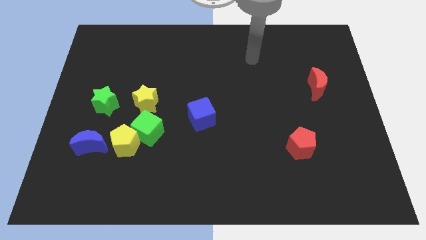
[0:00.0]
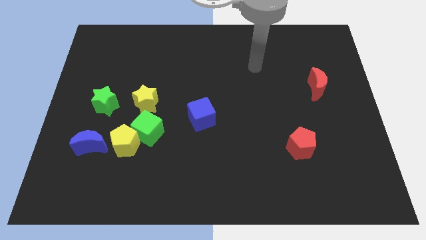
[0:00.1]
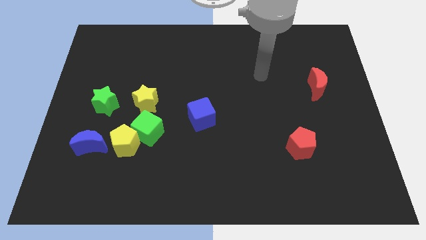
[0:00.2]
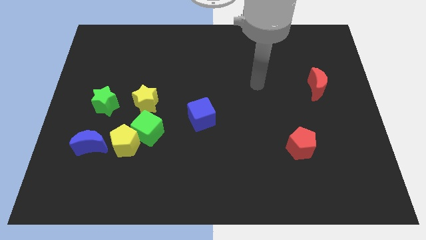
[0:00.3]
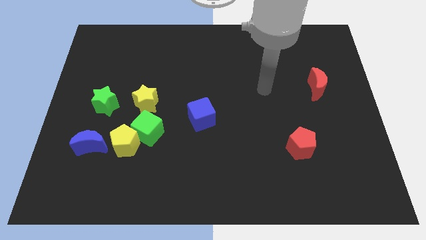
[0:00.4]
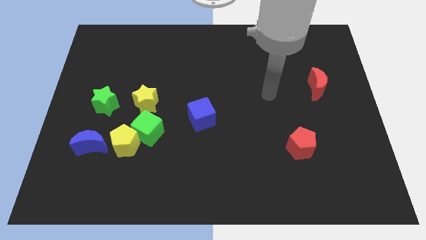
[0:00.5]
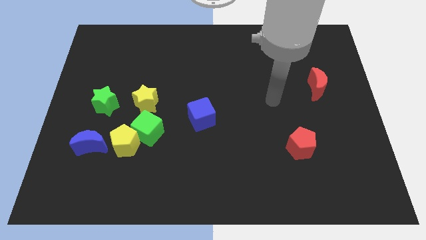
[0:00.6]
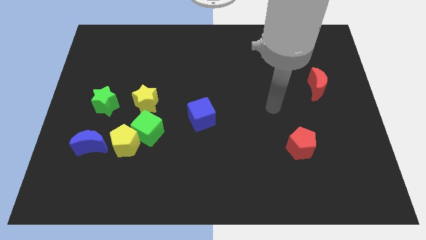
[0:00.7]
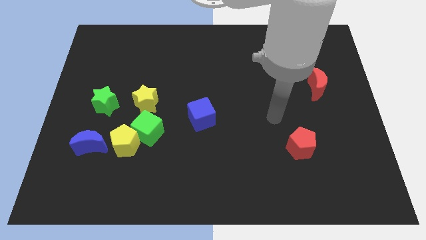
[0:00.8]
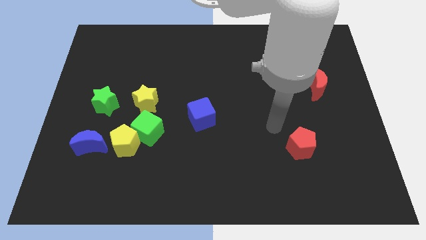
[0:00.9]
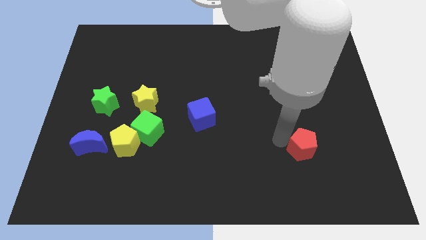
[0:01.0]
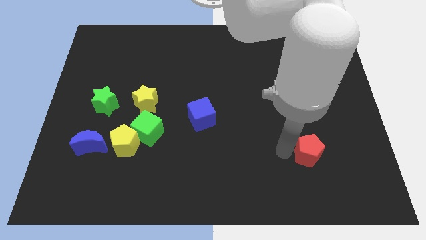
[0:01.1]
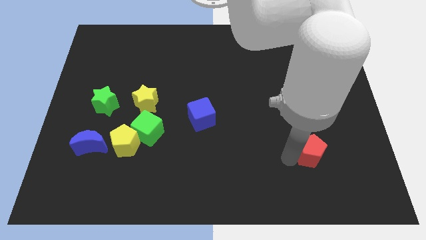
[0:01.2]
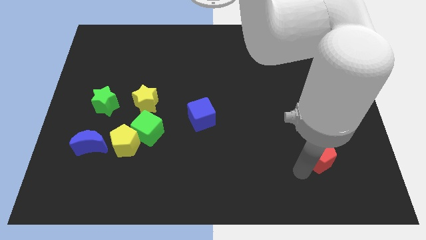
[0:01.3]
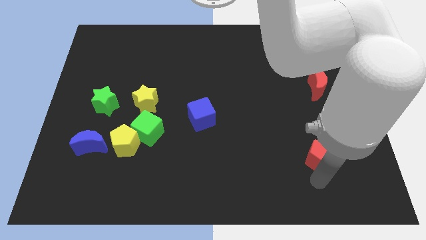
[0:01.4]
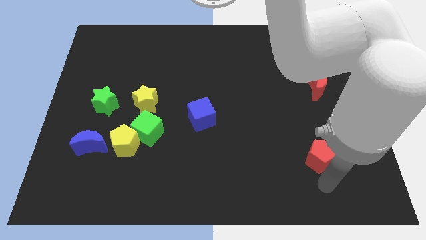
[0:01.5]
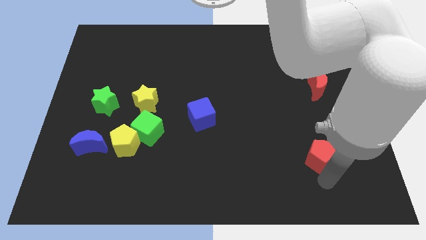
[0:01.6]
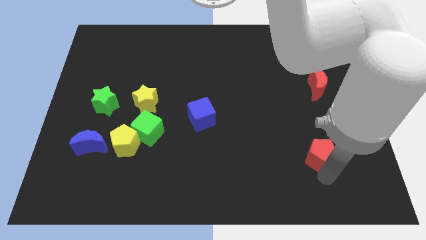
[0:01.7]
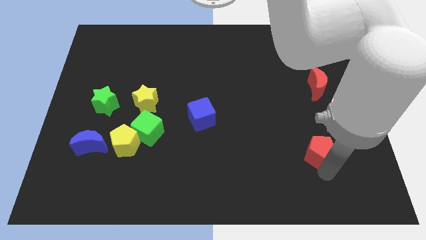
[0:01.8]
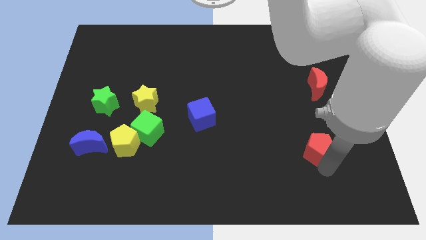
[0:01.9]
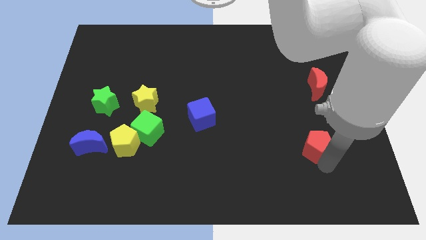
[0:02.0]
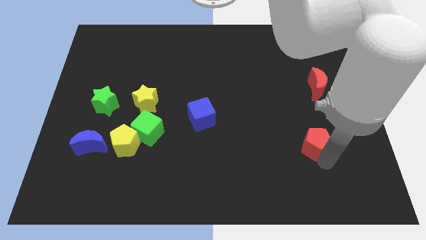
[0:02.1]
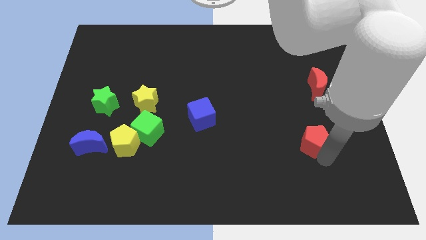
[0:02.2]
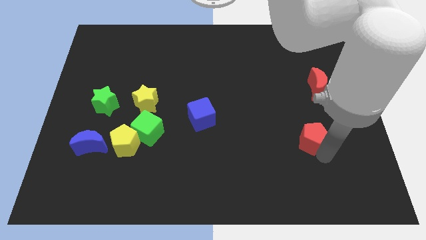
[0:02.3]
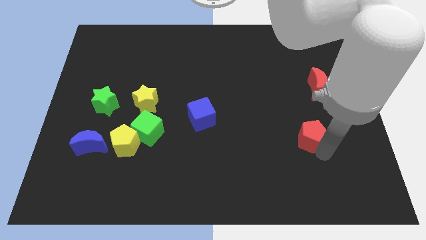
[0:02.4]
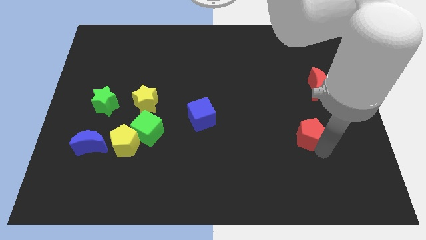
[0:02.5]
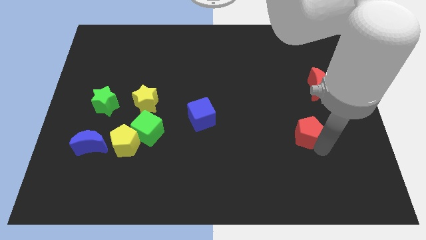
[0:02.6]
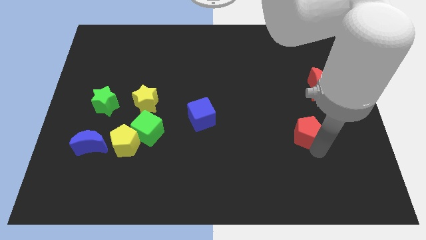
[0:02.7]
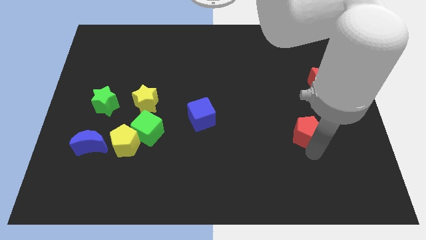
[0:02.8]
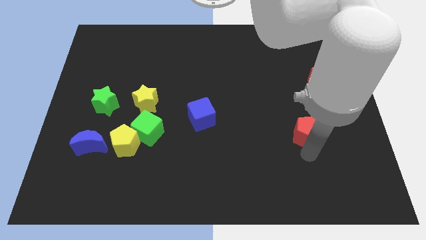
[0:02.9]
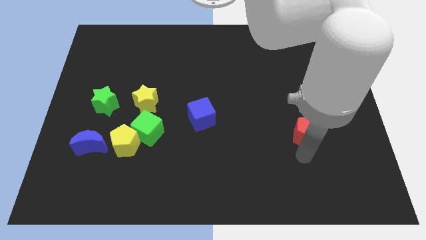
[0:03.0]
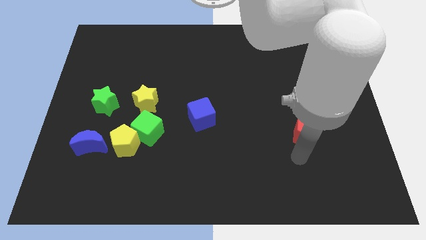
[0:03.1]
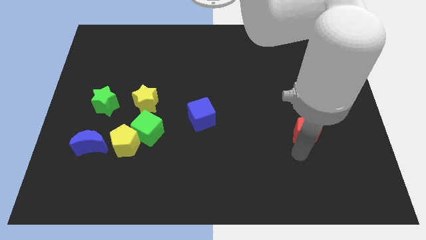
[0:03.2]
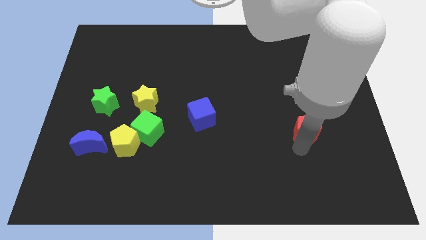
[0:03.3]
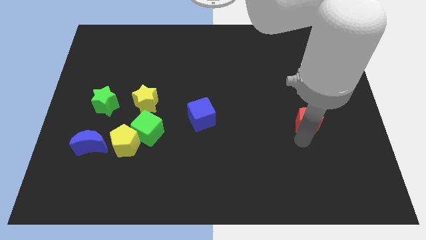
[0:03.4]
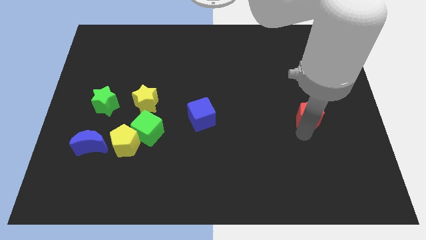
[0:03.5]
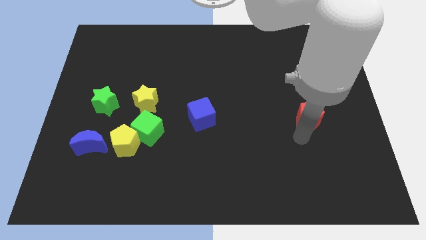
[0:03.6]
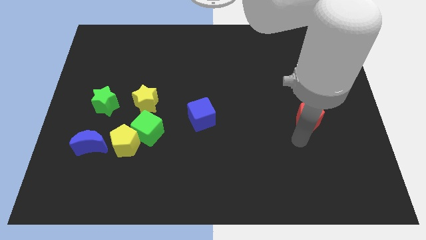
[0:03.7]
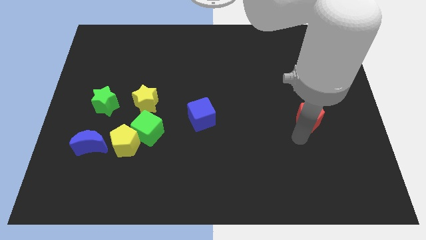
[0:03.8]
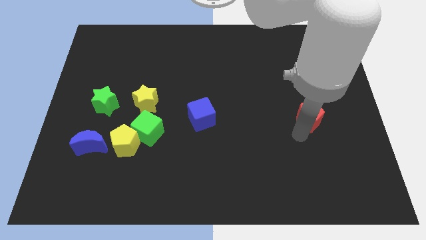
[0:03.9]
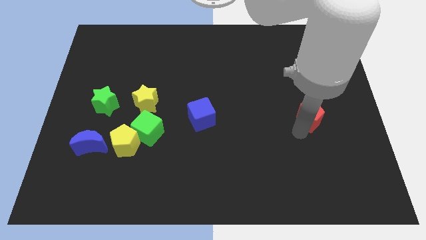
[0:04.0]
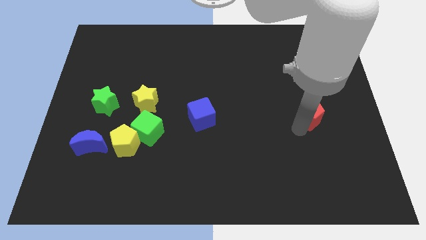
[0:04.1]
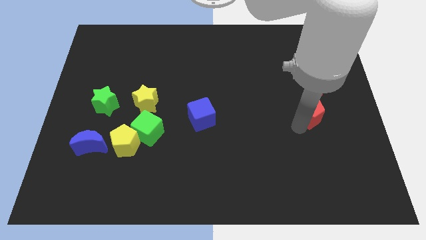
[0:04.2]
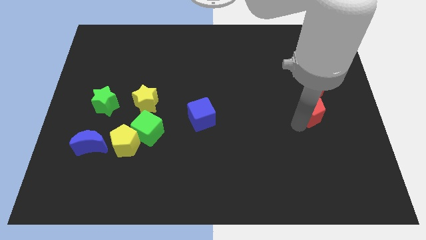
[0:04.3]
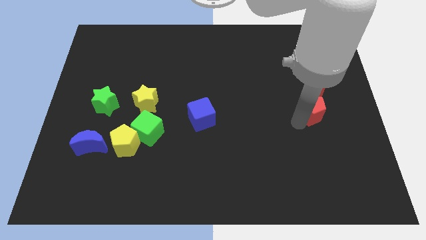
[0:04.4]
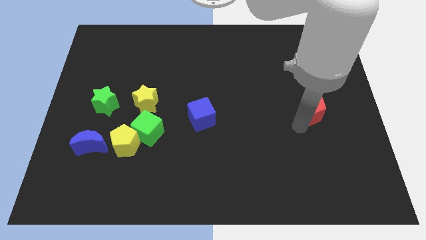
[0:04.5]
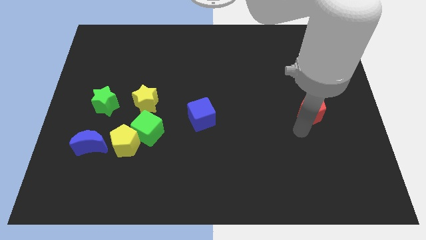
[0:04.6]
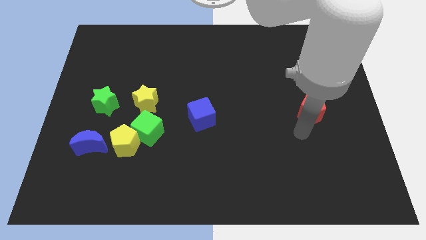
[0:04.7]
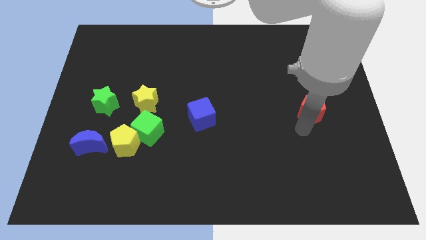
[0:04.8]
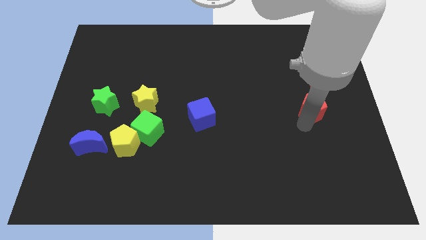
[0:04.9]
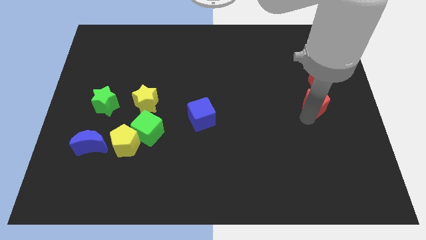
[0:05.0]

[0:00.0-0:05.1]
push the red pentagon towards the red moon

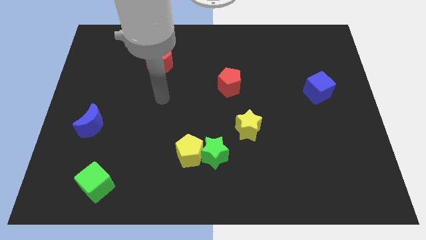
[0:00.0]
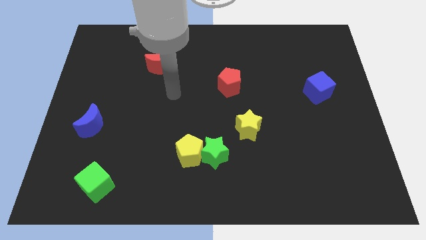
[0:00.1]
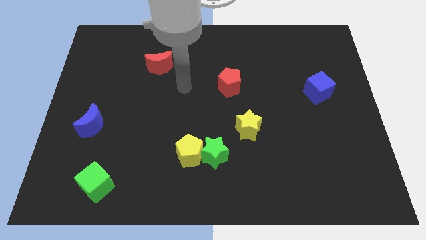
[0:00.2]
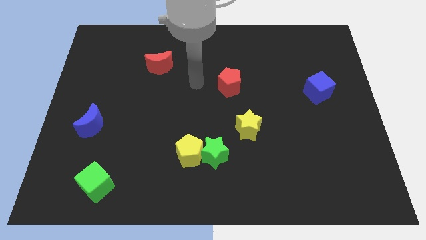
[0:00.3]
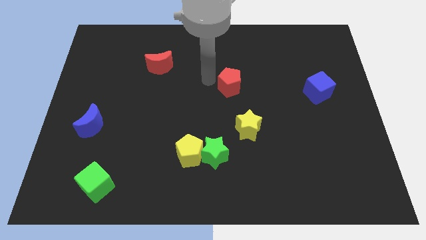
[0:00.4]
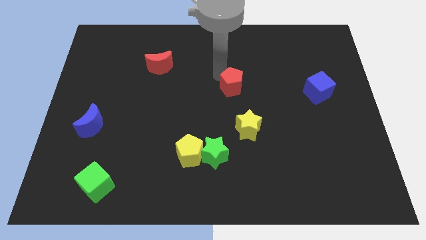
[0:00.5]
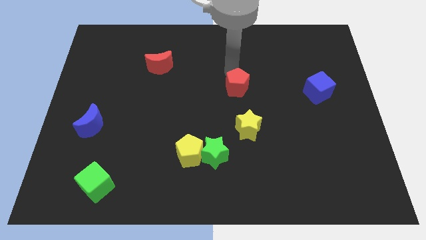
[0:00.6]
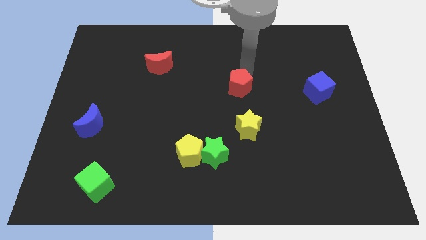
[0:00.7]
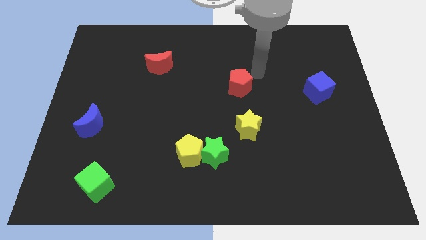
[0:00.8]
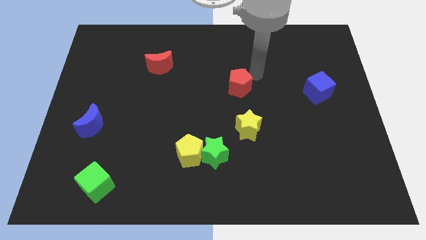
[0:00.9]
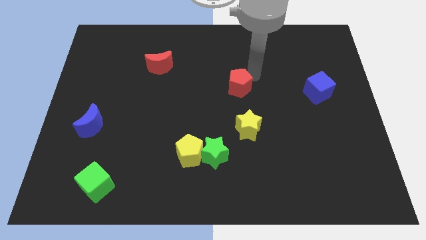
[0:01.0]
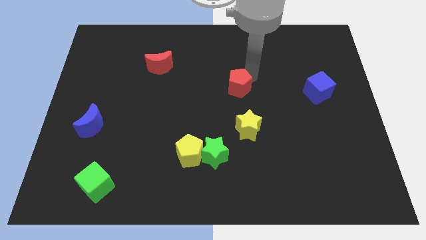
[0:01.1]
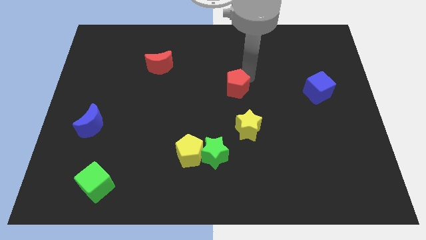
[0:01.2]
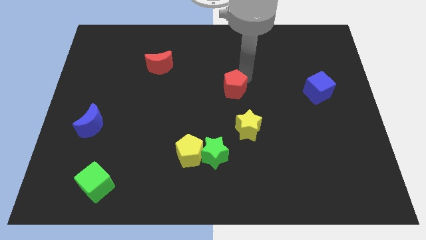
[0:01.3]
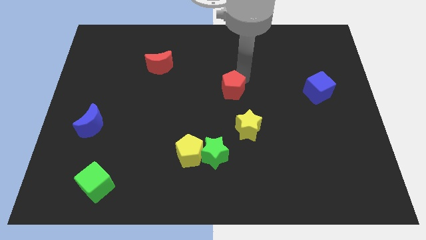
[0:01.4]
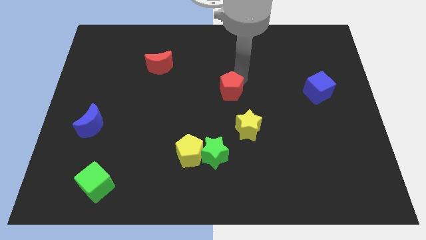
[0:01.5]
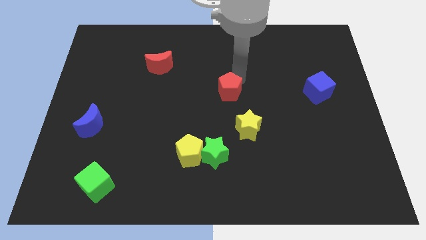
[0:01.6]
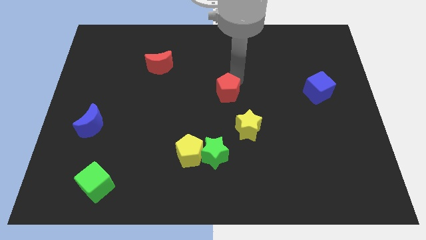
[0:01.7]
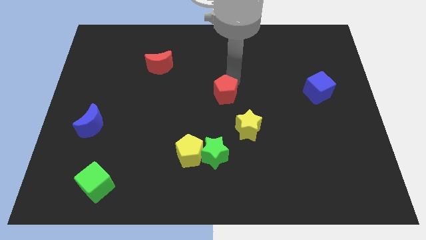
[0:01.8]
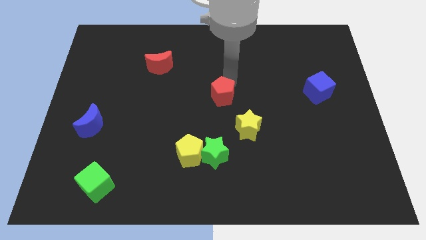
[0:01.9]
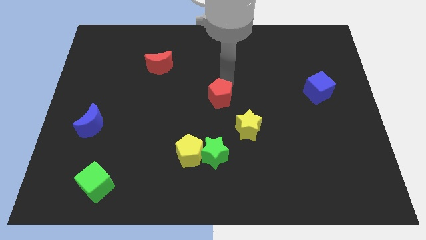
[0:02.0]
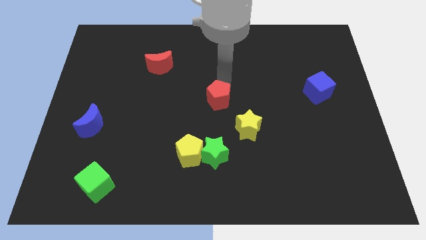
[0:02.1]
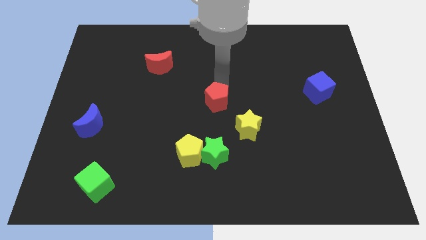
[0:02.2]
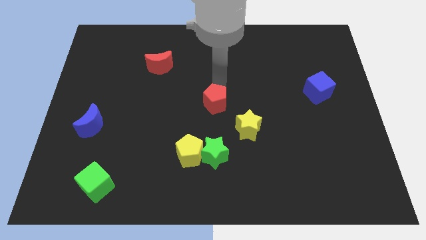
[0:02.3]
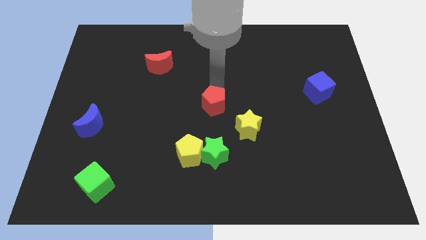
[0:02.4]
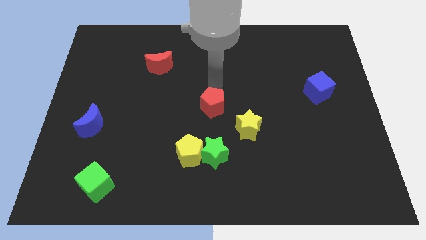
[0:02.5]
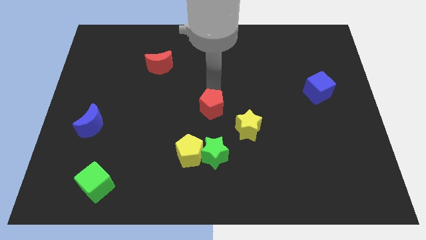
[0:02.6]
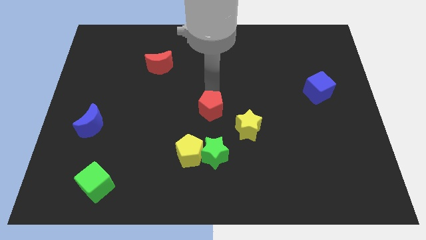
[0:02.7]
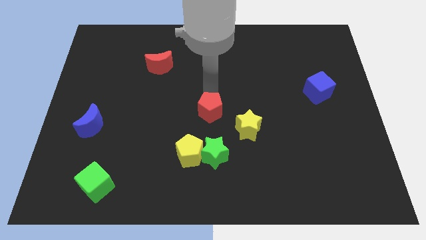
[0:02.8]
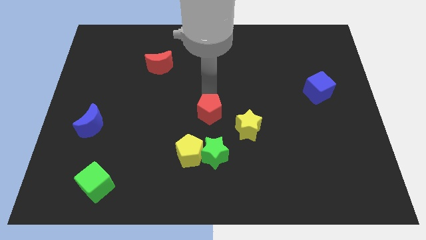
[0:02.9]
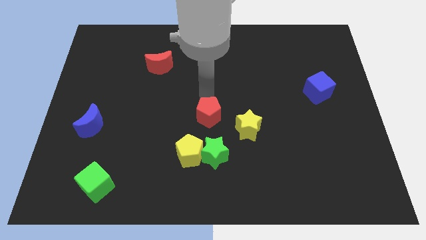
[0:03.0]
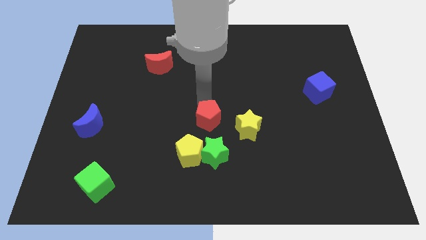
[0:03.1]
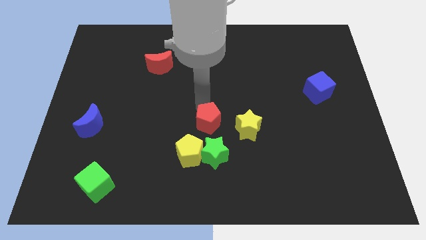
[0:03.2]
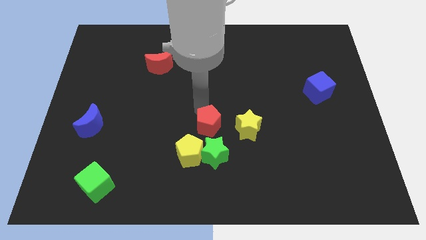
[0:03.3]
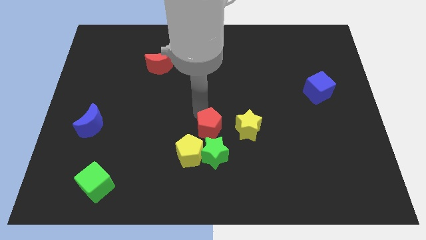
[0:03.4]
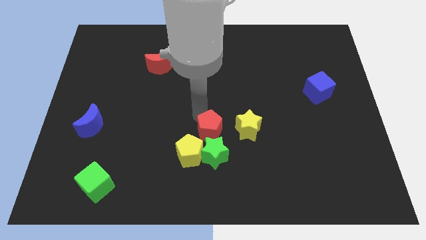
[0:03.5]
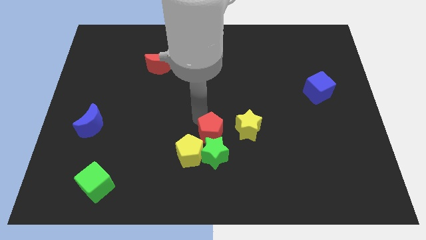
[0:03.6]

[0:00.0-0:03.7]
slide the red pentagon to the green star
